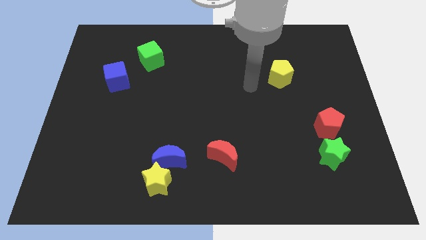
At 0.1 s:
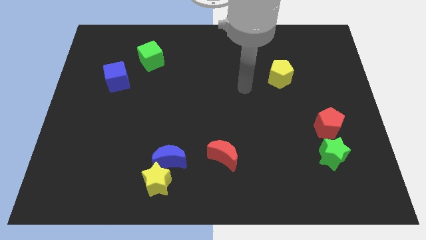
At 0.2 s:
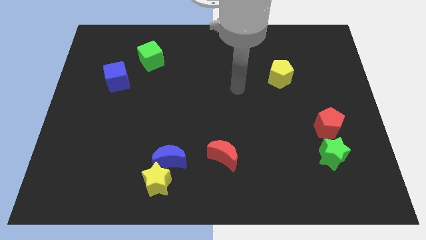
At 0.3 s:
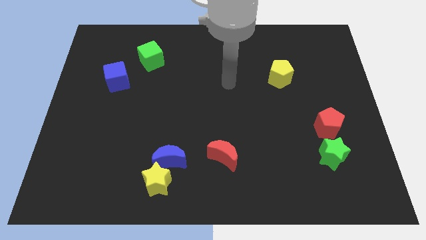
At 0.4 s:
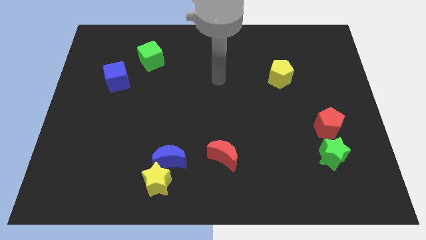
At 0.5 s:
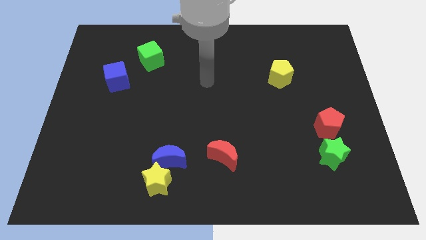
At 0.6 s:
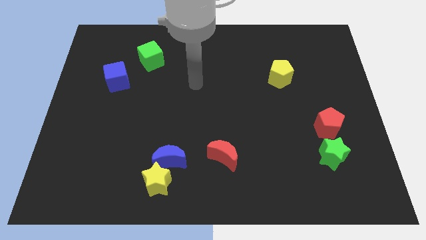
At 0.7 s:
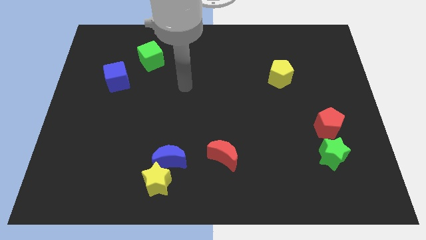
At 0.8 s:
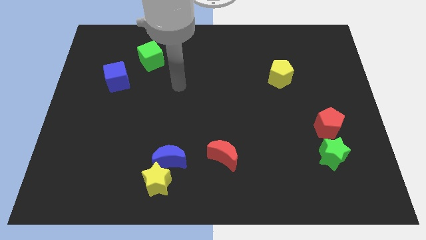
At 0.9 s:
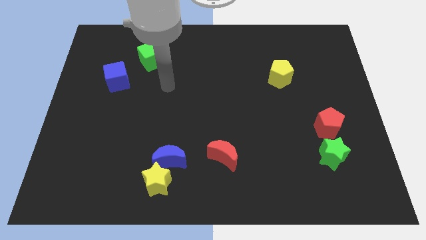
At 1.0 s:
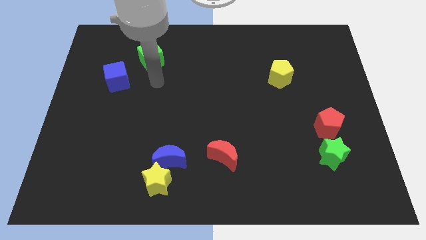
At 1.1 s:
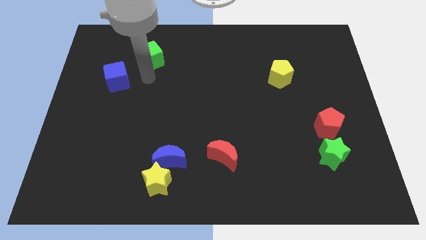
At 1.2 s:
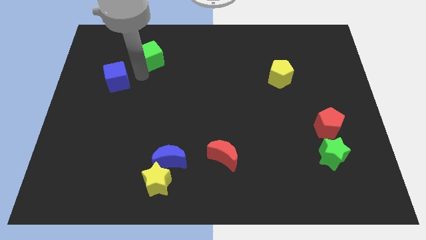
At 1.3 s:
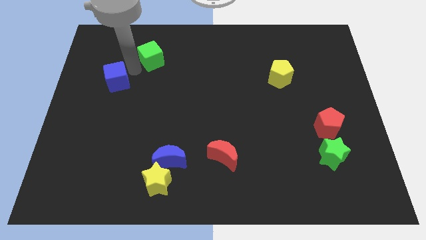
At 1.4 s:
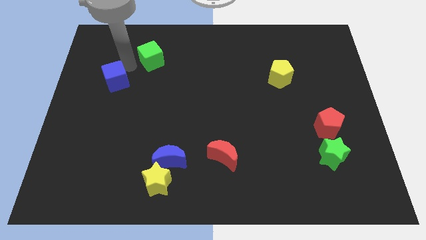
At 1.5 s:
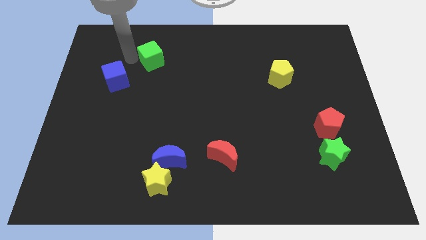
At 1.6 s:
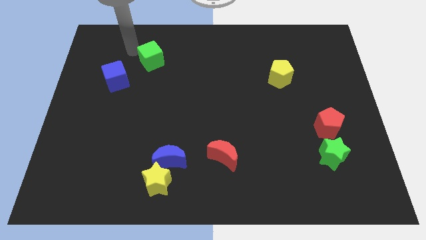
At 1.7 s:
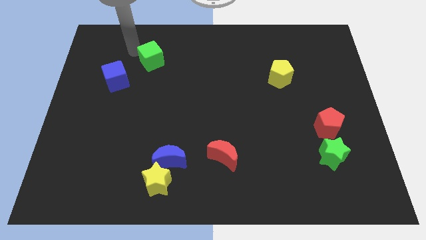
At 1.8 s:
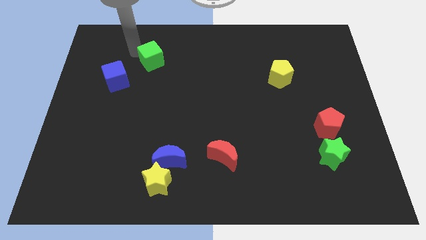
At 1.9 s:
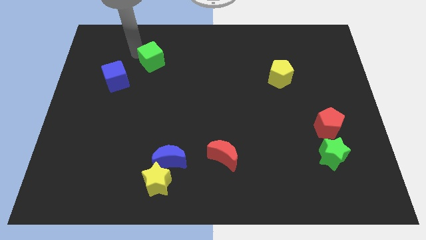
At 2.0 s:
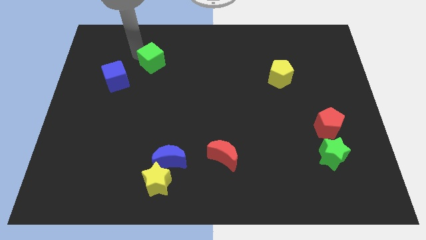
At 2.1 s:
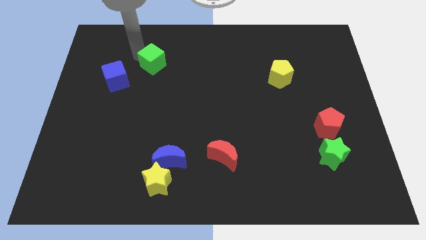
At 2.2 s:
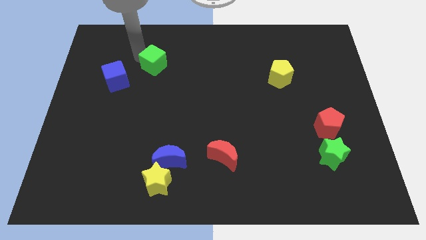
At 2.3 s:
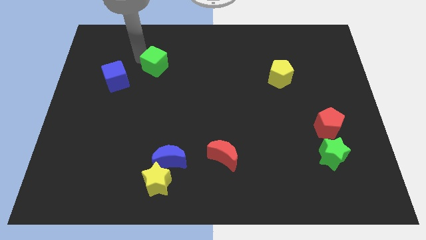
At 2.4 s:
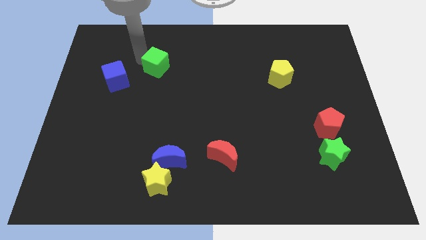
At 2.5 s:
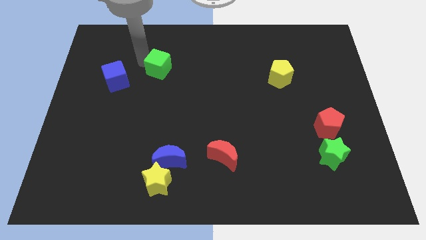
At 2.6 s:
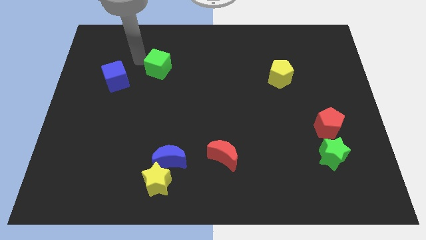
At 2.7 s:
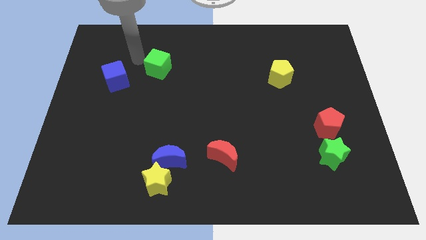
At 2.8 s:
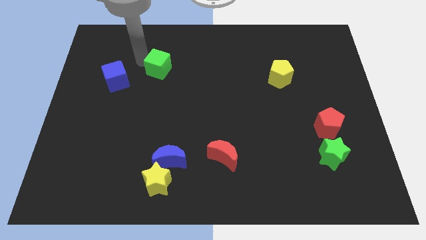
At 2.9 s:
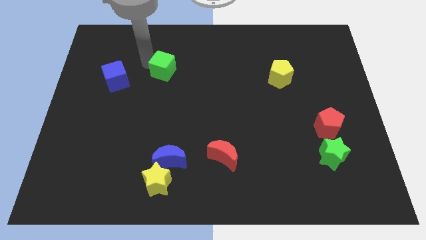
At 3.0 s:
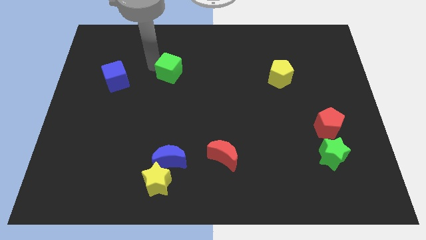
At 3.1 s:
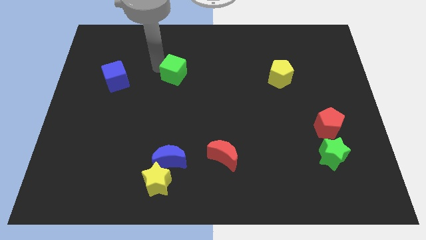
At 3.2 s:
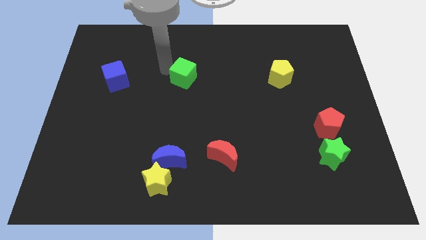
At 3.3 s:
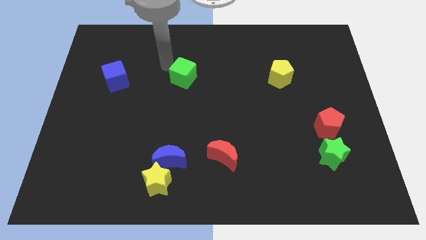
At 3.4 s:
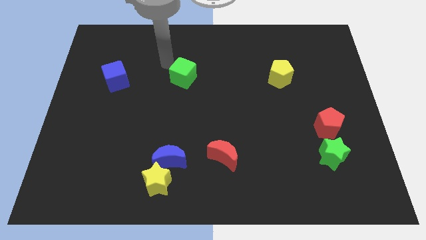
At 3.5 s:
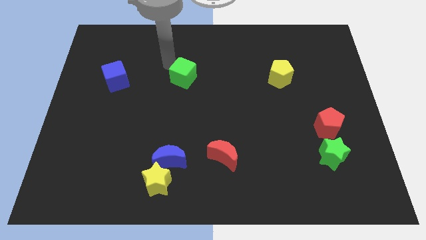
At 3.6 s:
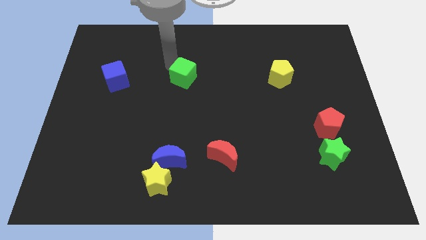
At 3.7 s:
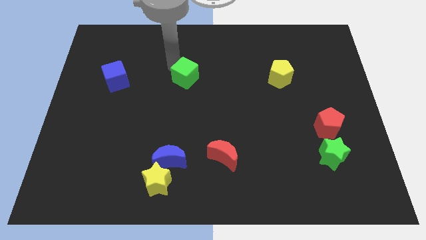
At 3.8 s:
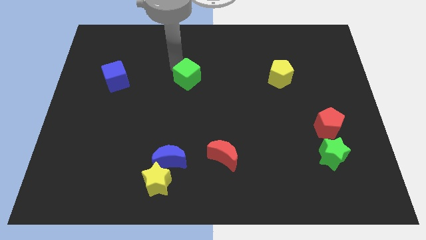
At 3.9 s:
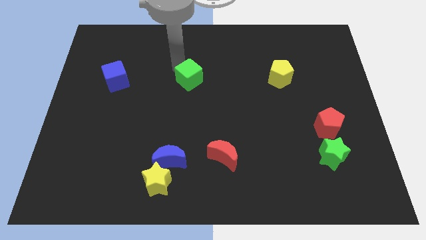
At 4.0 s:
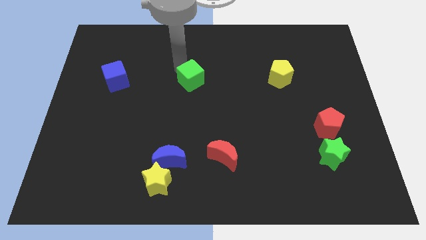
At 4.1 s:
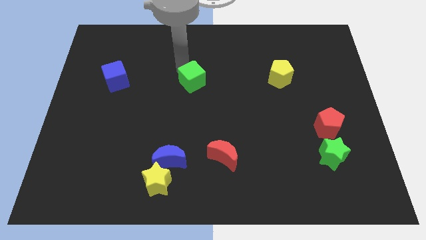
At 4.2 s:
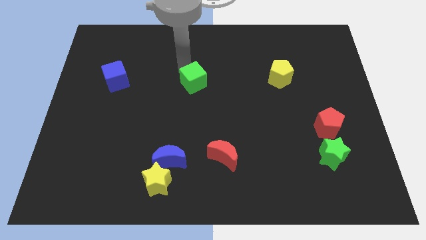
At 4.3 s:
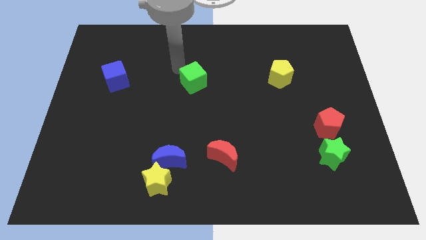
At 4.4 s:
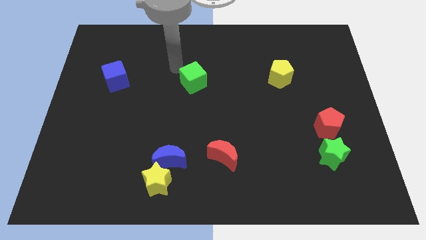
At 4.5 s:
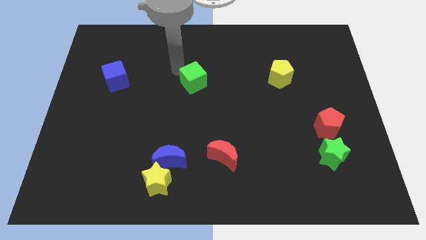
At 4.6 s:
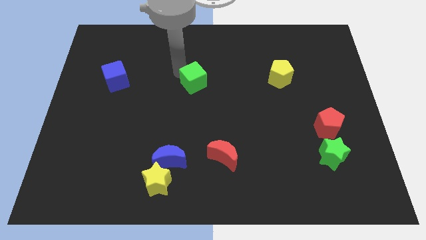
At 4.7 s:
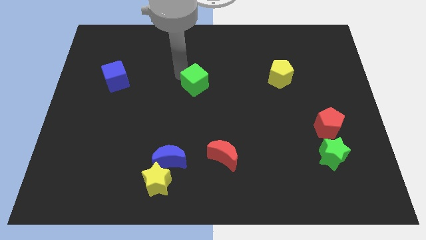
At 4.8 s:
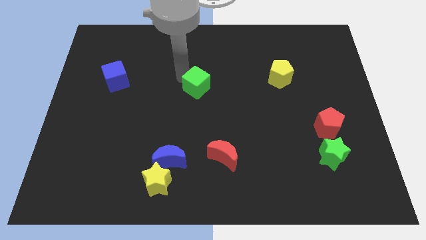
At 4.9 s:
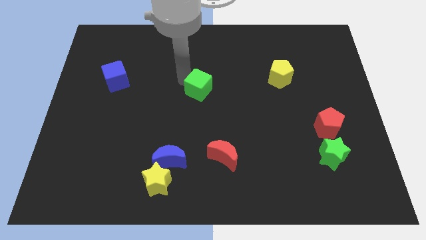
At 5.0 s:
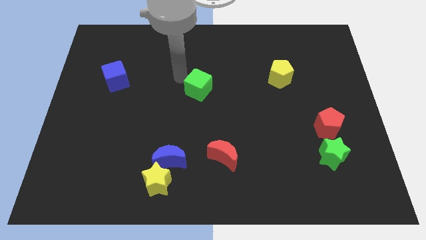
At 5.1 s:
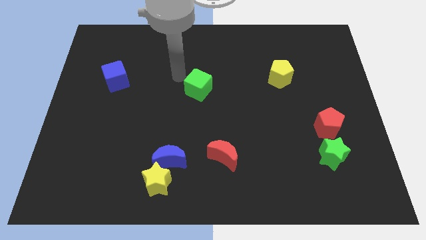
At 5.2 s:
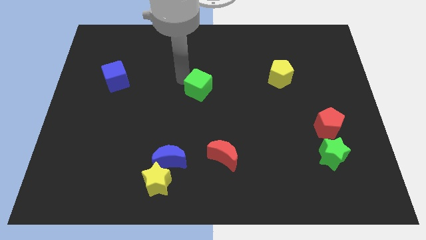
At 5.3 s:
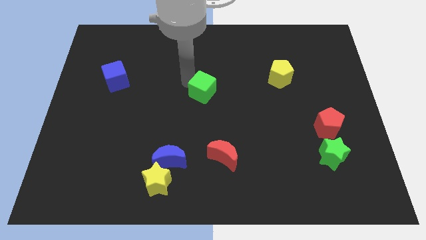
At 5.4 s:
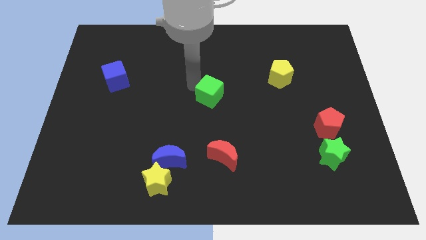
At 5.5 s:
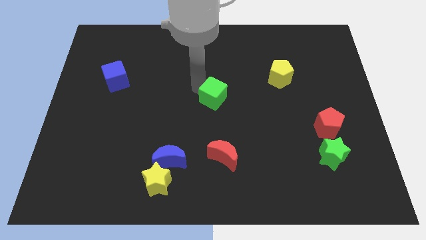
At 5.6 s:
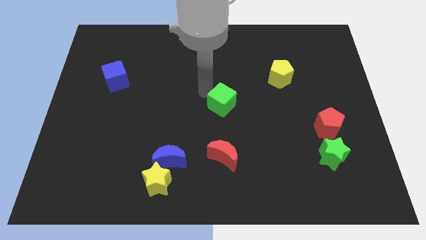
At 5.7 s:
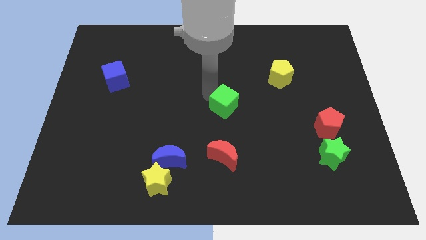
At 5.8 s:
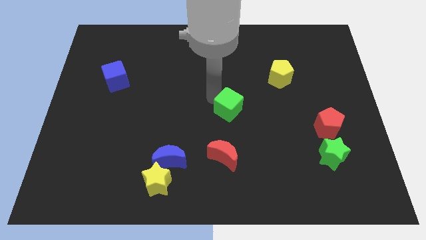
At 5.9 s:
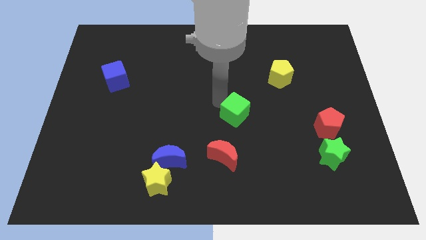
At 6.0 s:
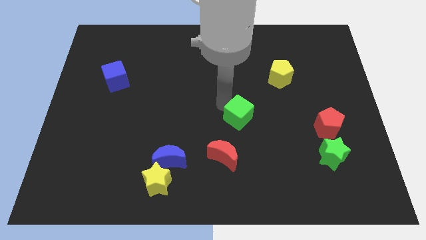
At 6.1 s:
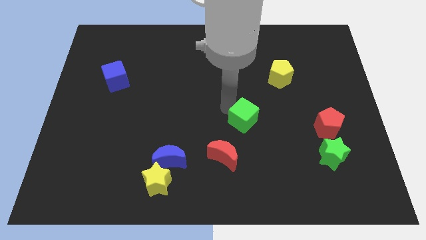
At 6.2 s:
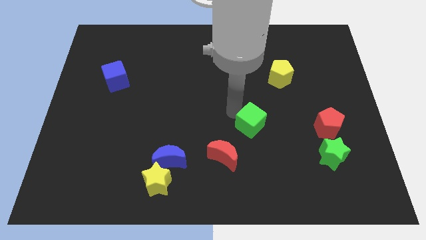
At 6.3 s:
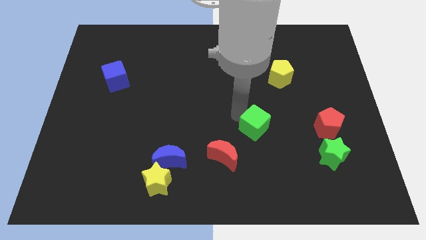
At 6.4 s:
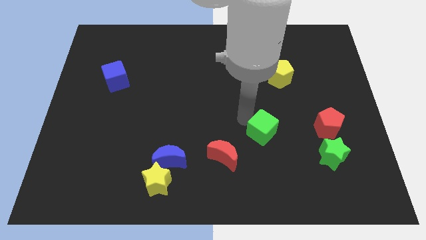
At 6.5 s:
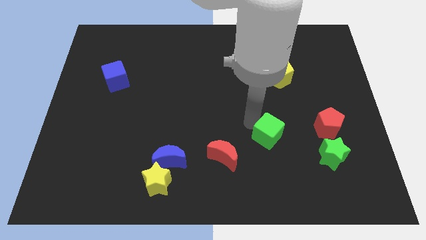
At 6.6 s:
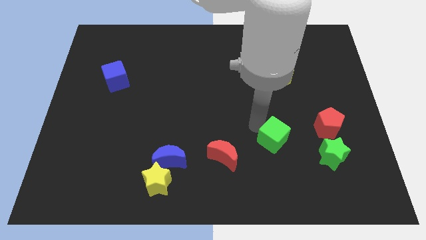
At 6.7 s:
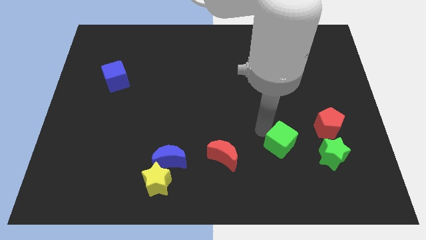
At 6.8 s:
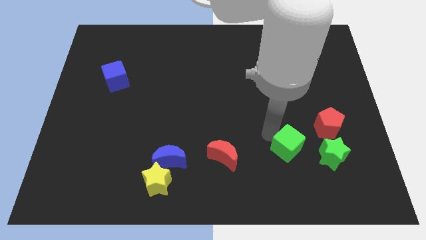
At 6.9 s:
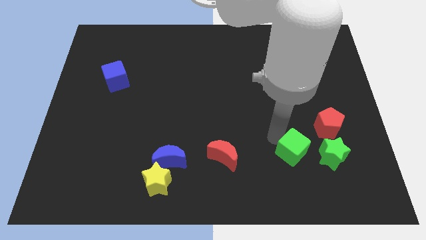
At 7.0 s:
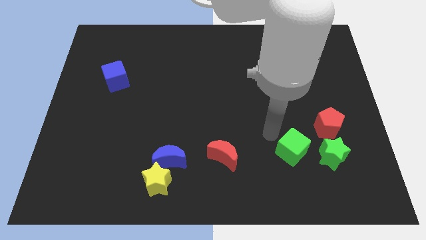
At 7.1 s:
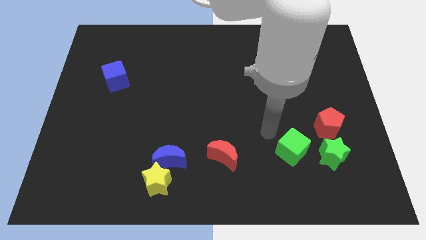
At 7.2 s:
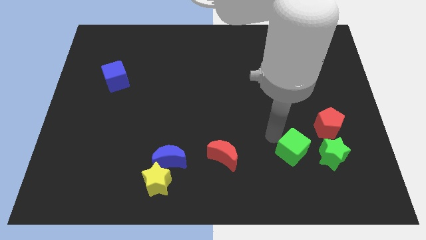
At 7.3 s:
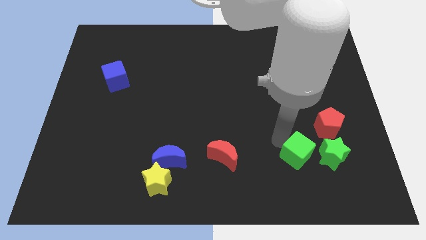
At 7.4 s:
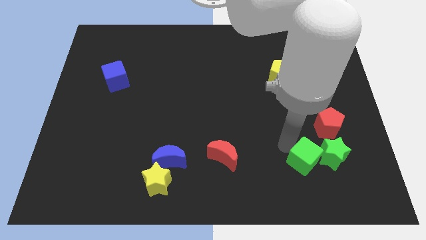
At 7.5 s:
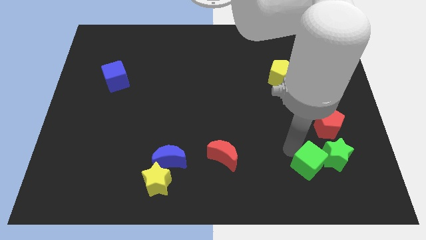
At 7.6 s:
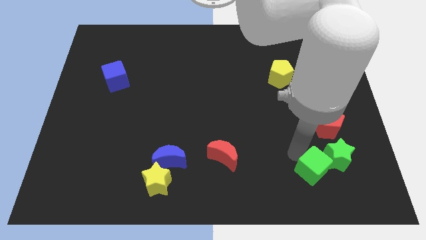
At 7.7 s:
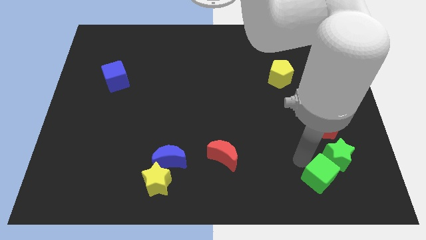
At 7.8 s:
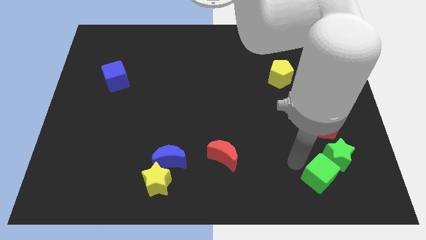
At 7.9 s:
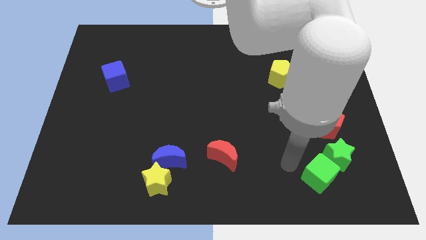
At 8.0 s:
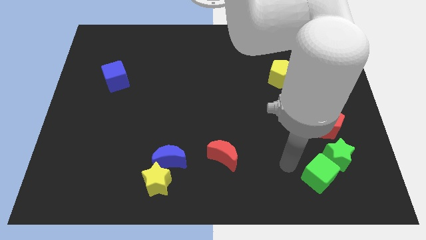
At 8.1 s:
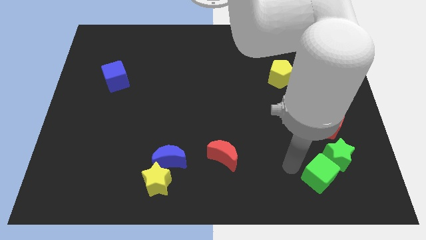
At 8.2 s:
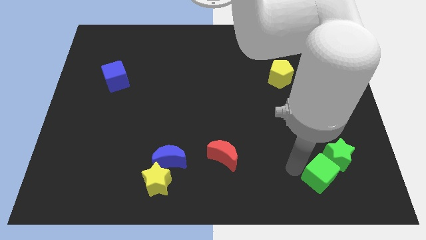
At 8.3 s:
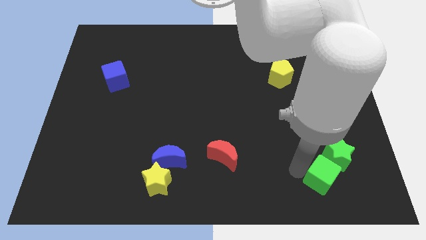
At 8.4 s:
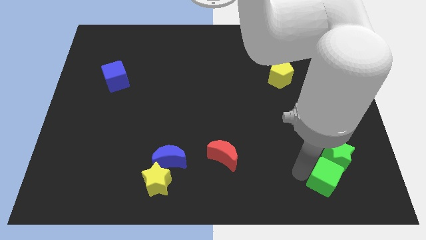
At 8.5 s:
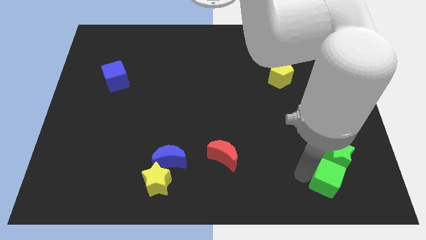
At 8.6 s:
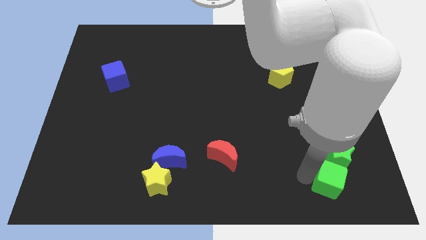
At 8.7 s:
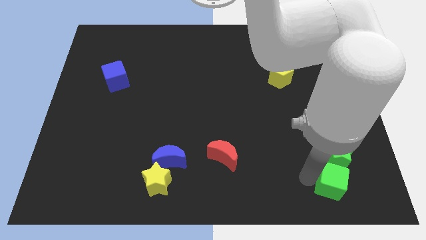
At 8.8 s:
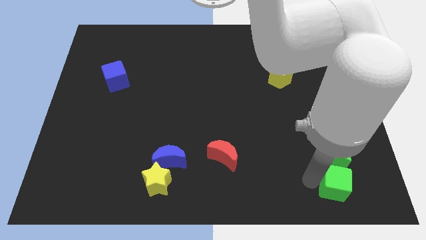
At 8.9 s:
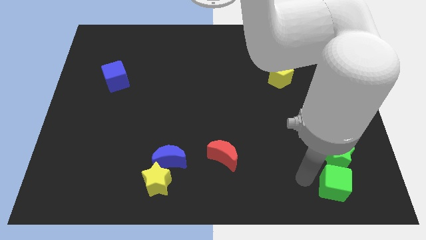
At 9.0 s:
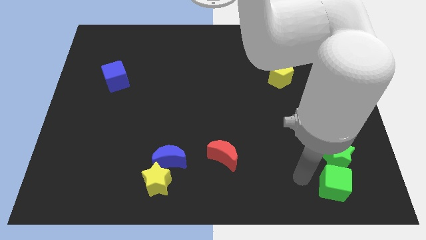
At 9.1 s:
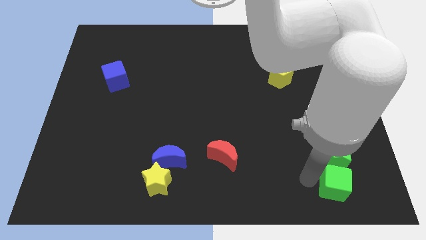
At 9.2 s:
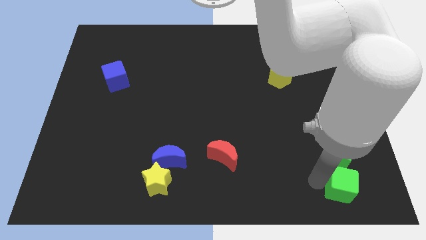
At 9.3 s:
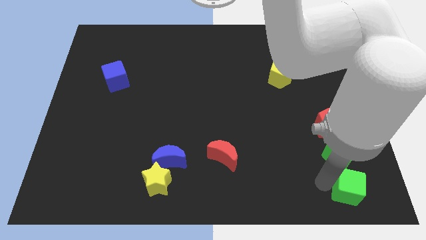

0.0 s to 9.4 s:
move the green cube to the bottom right of the board
